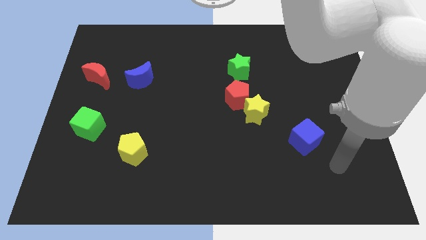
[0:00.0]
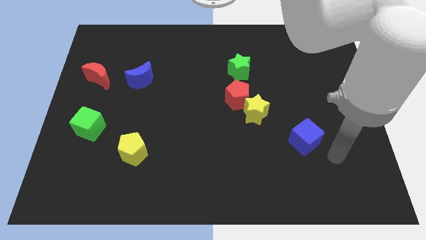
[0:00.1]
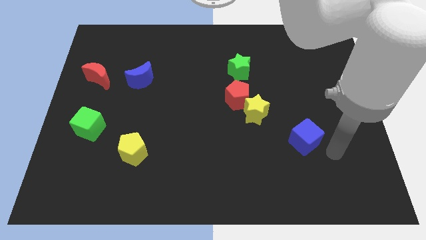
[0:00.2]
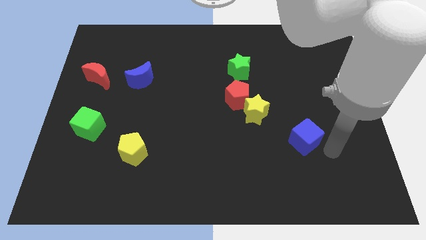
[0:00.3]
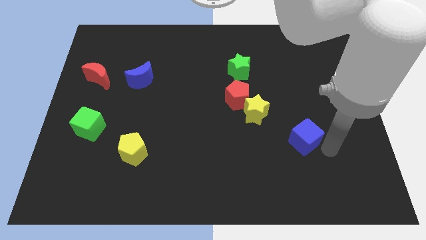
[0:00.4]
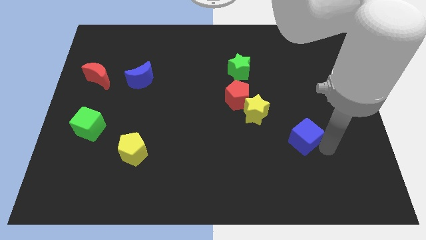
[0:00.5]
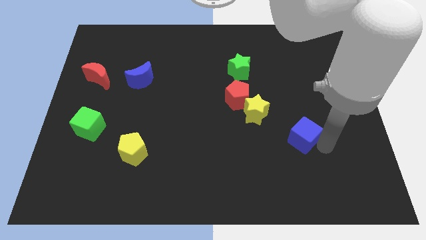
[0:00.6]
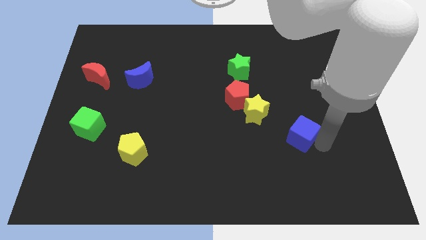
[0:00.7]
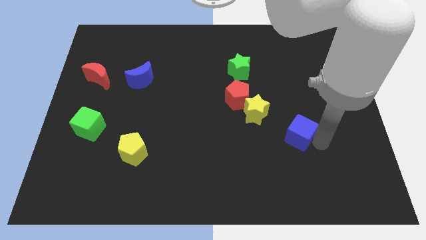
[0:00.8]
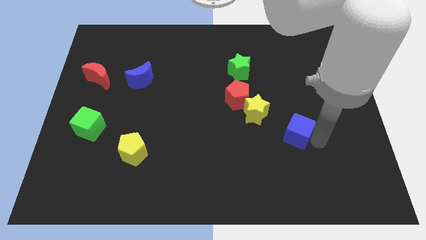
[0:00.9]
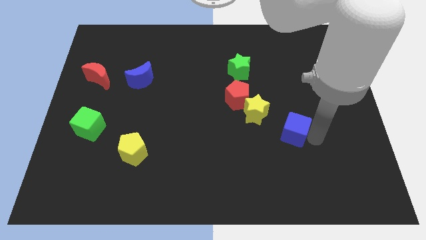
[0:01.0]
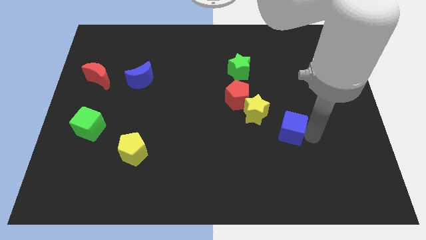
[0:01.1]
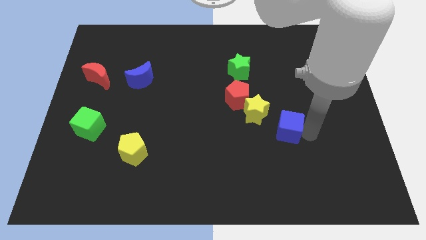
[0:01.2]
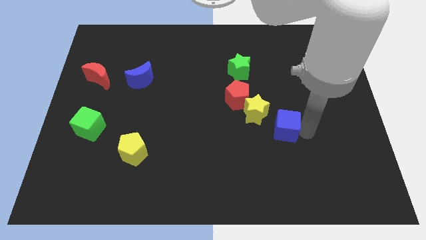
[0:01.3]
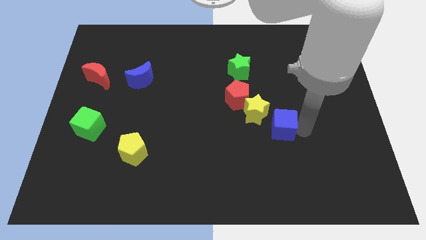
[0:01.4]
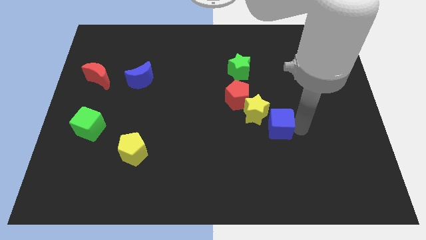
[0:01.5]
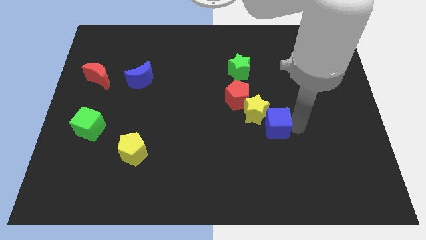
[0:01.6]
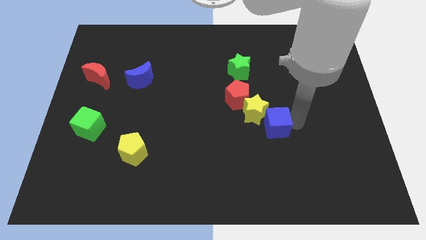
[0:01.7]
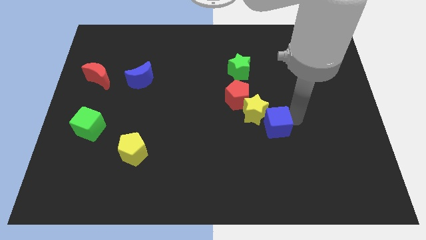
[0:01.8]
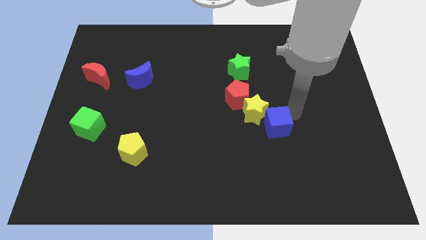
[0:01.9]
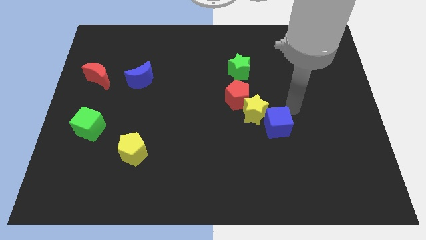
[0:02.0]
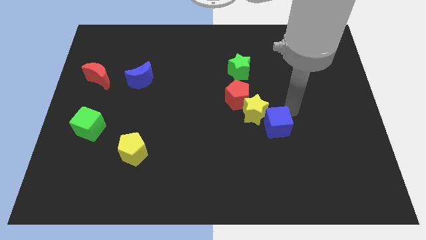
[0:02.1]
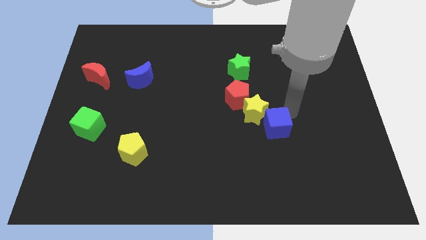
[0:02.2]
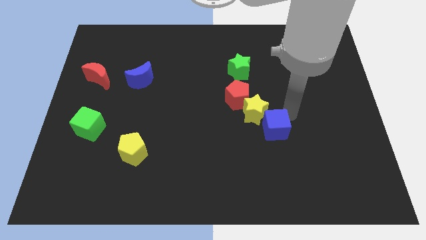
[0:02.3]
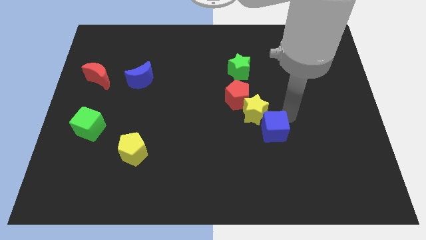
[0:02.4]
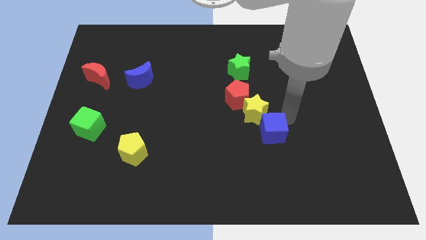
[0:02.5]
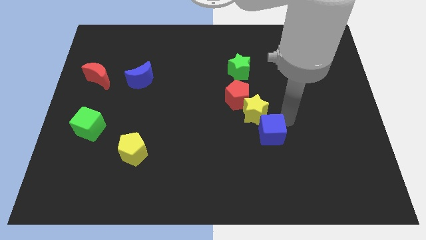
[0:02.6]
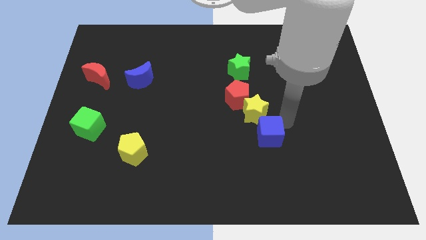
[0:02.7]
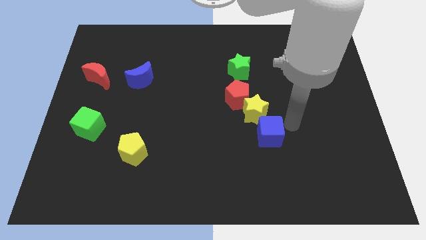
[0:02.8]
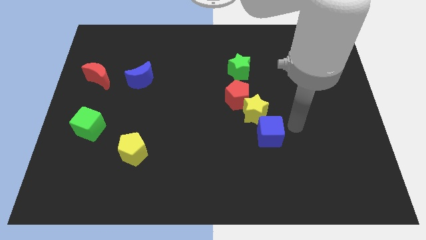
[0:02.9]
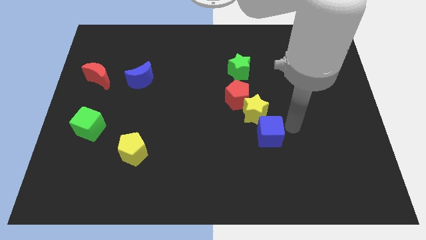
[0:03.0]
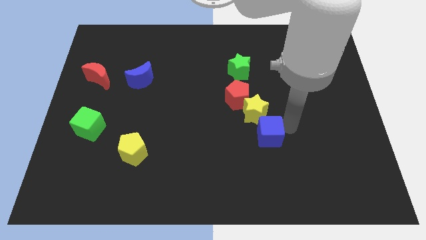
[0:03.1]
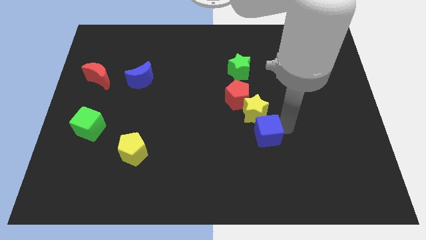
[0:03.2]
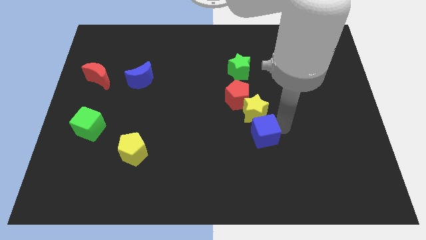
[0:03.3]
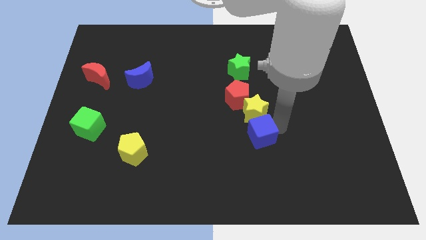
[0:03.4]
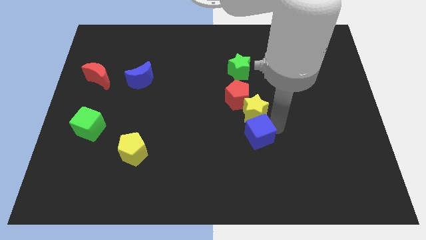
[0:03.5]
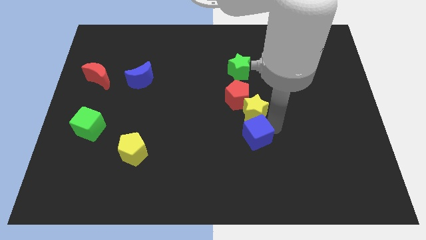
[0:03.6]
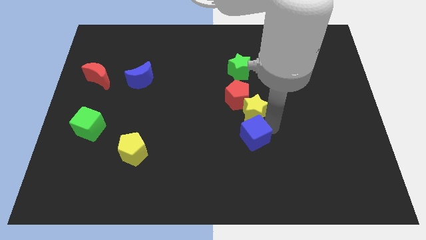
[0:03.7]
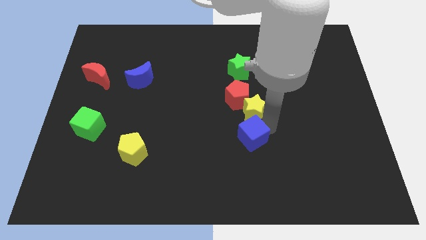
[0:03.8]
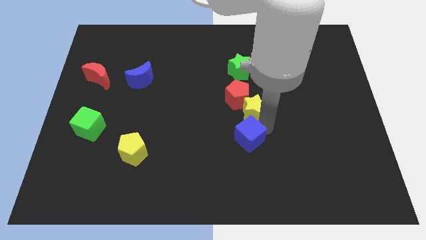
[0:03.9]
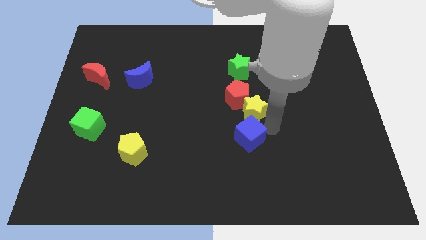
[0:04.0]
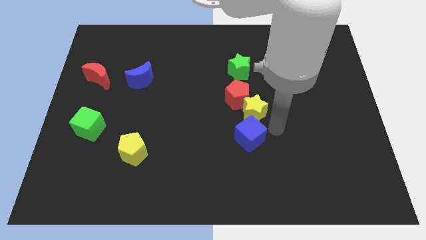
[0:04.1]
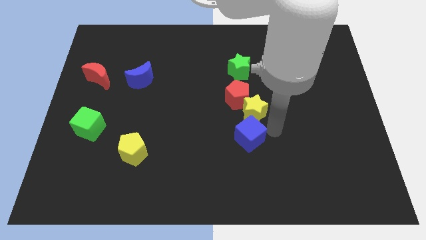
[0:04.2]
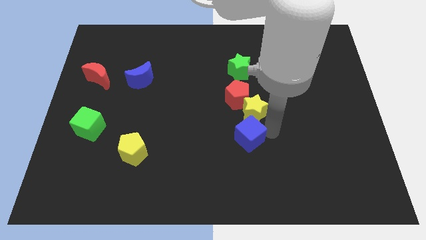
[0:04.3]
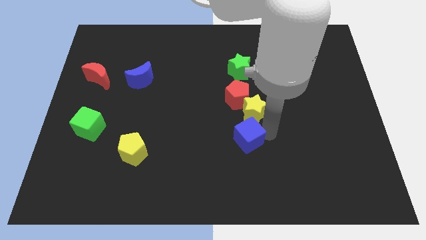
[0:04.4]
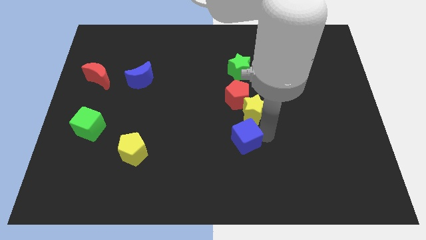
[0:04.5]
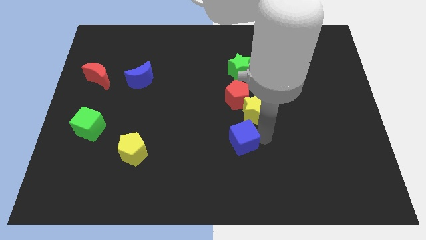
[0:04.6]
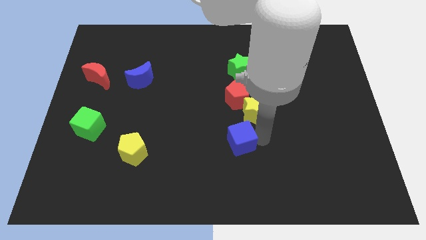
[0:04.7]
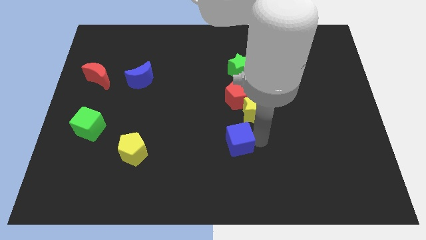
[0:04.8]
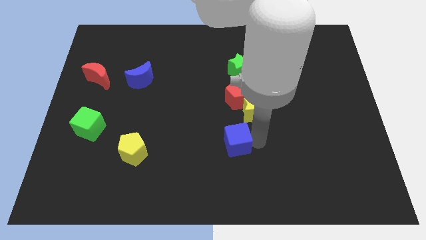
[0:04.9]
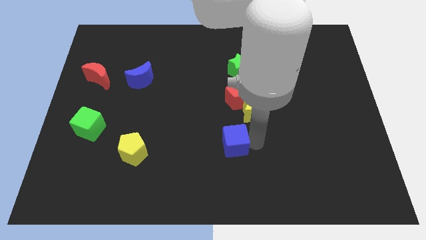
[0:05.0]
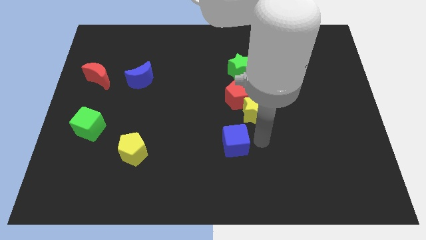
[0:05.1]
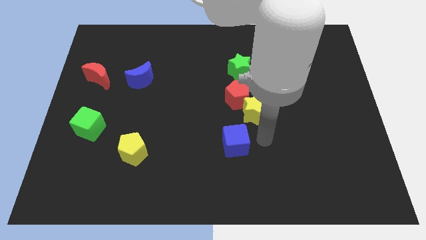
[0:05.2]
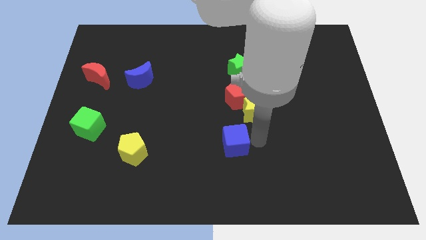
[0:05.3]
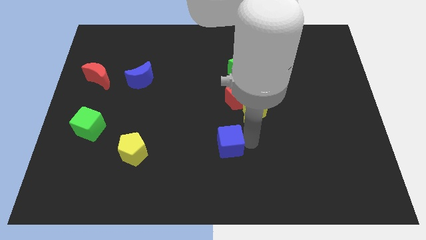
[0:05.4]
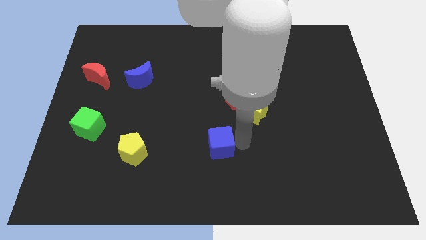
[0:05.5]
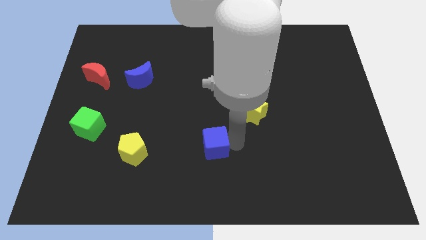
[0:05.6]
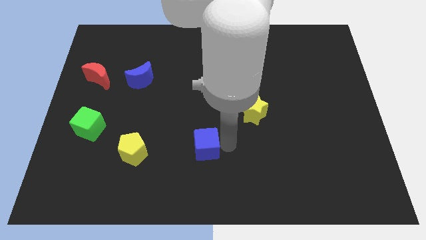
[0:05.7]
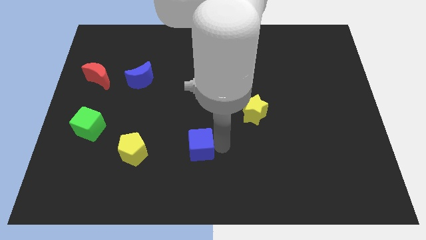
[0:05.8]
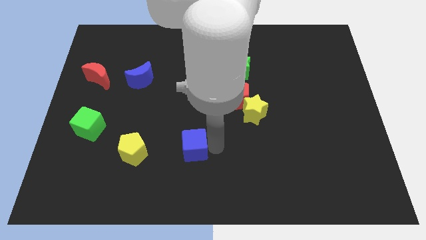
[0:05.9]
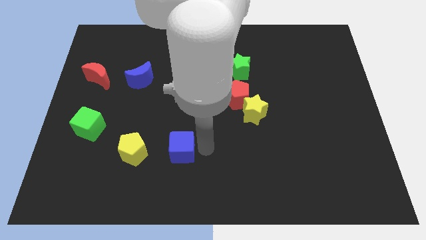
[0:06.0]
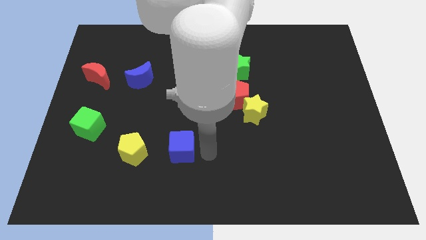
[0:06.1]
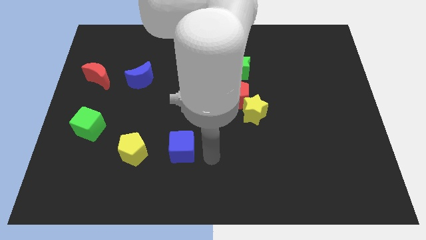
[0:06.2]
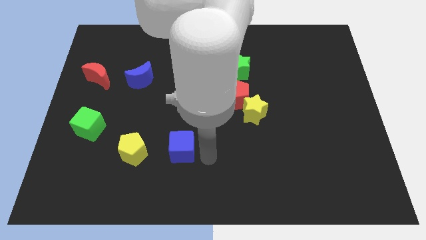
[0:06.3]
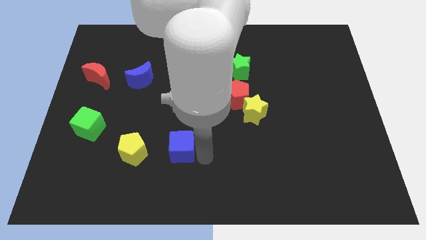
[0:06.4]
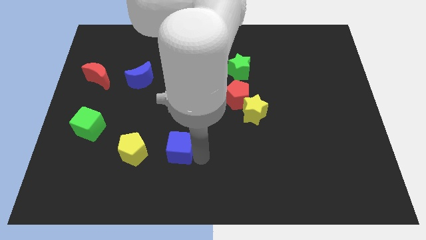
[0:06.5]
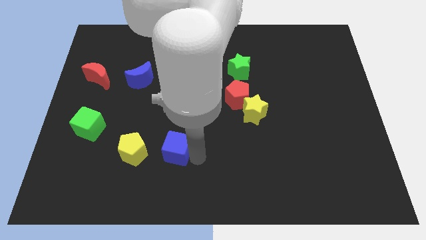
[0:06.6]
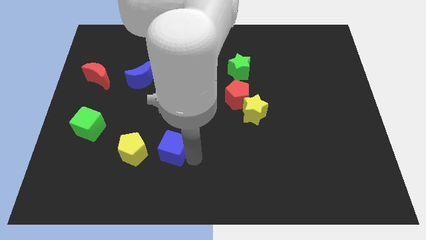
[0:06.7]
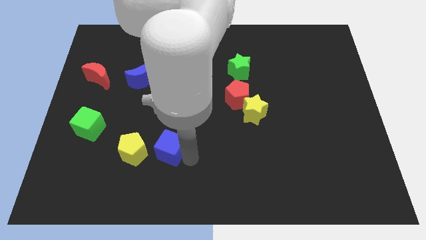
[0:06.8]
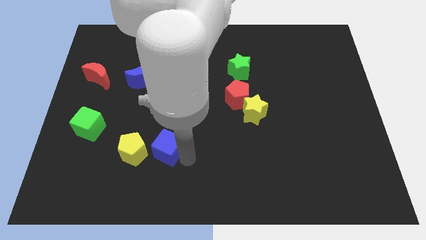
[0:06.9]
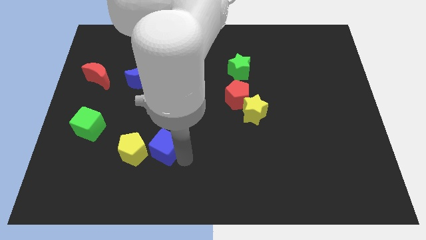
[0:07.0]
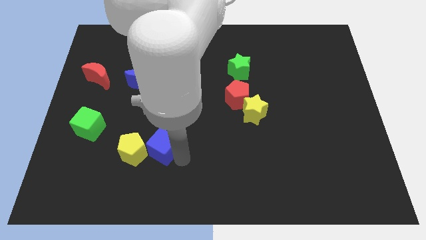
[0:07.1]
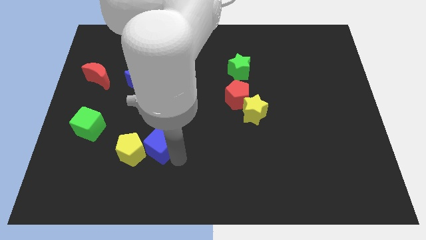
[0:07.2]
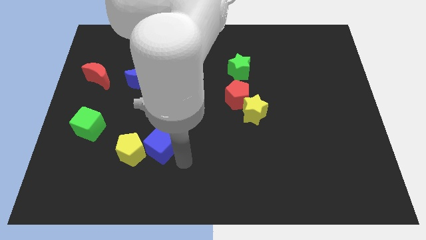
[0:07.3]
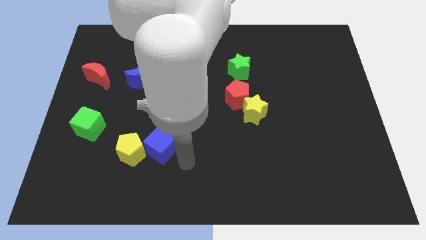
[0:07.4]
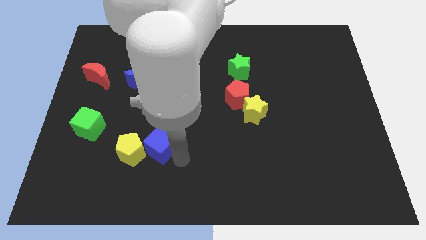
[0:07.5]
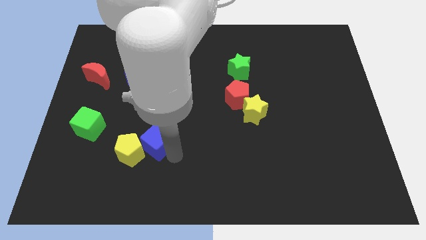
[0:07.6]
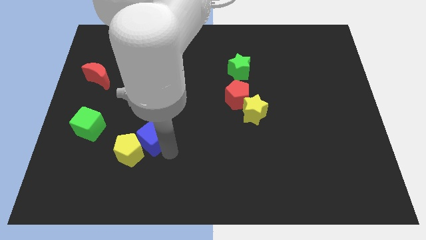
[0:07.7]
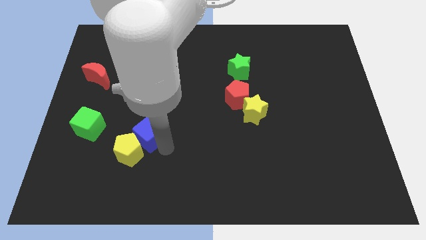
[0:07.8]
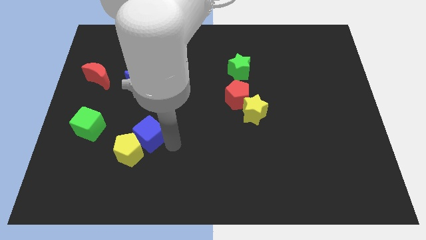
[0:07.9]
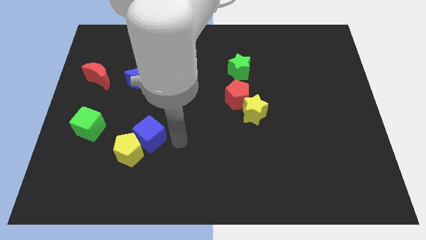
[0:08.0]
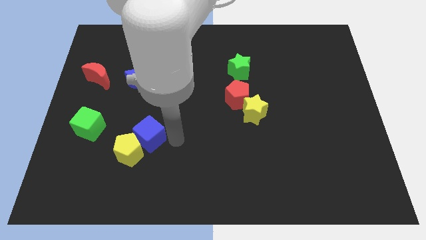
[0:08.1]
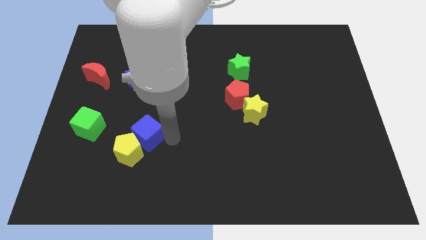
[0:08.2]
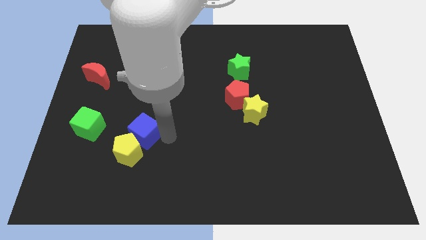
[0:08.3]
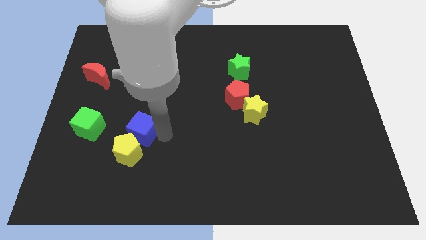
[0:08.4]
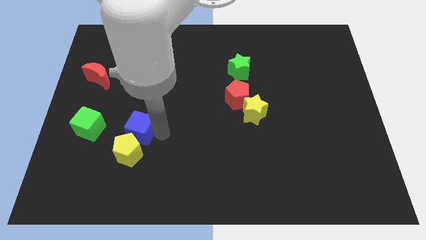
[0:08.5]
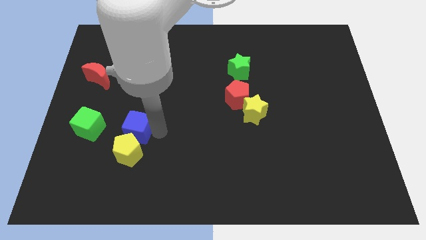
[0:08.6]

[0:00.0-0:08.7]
move the blue cube to the top left side of the yellow pentagon

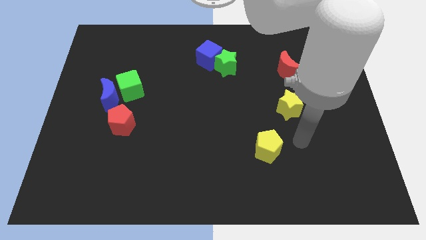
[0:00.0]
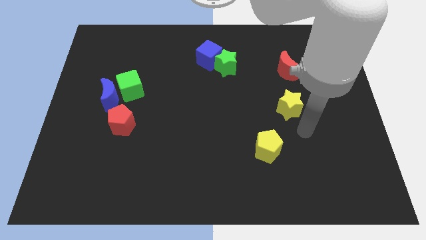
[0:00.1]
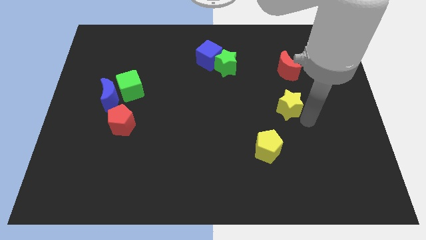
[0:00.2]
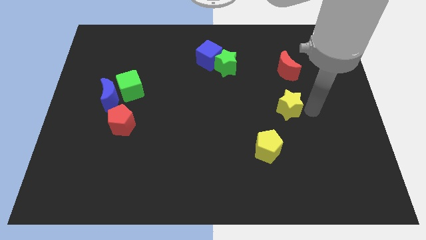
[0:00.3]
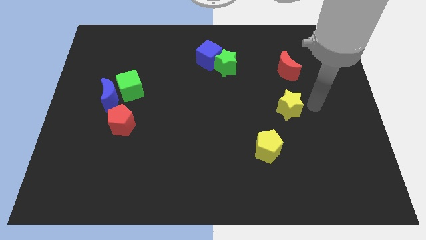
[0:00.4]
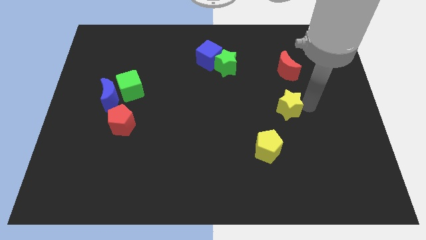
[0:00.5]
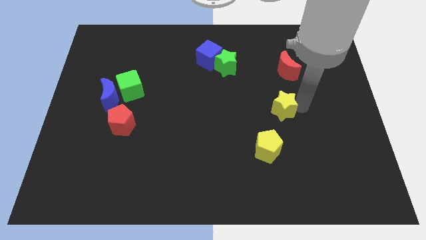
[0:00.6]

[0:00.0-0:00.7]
put the yellow star to the top side of the yellow pentagon
